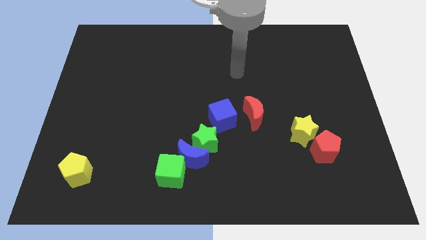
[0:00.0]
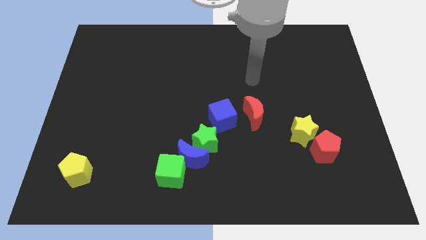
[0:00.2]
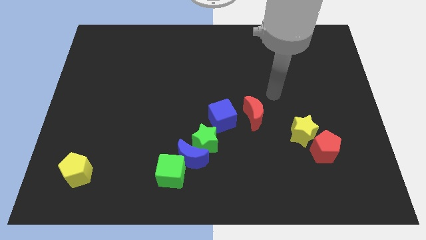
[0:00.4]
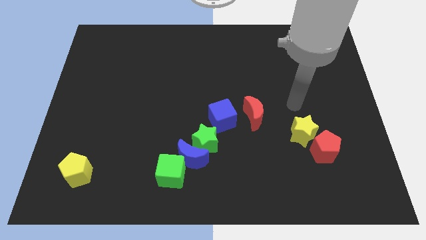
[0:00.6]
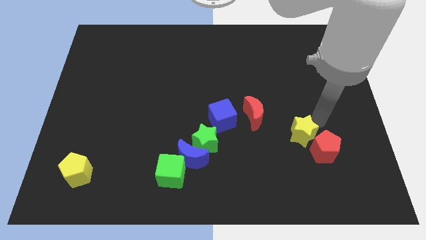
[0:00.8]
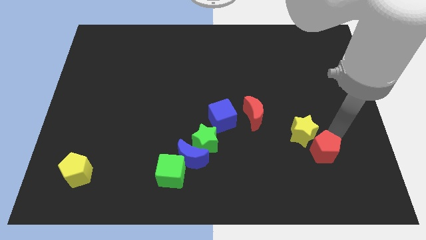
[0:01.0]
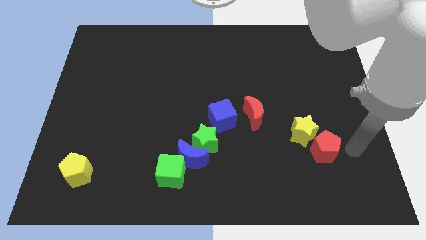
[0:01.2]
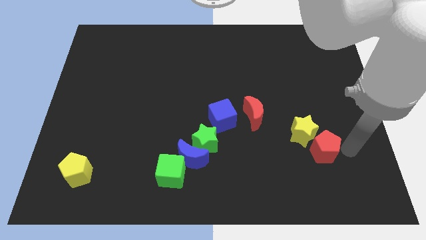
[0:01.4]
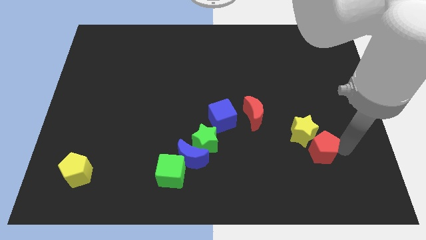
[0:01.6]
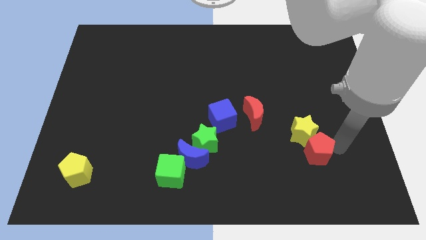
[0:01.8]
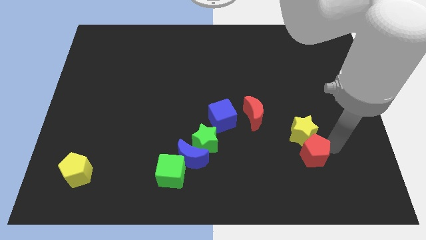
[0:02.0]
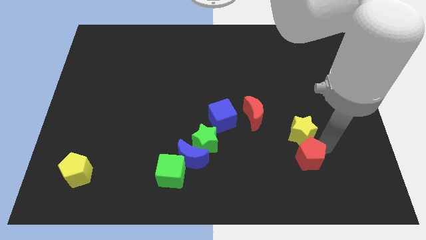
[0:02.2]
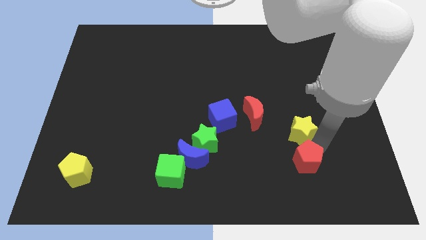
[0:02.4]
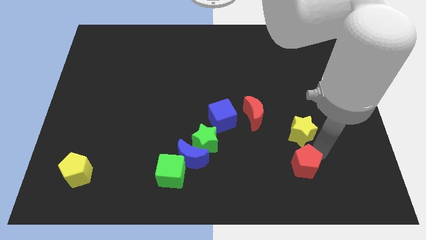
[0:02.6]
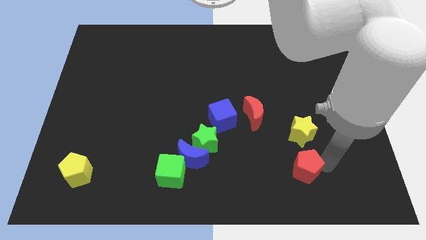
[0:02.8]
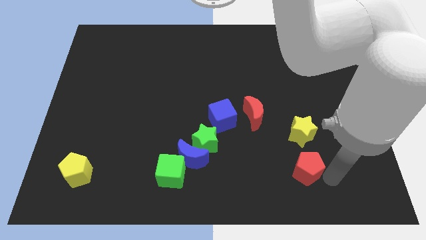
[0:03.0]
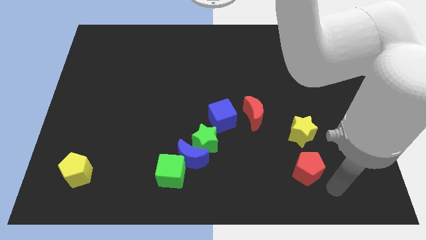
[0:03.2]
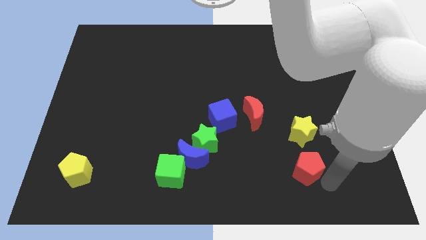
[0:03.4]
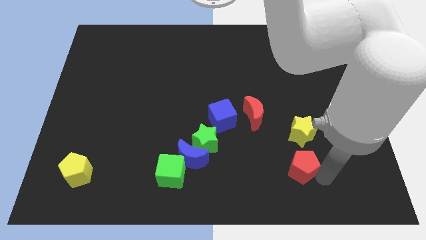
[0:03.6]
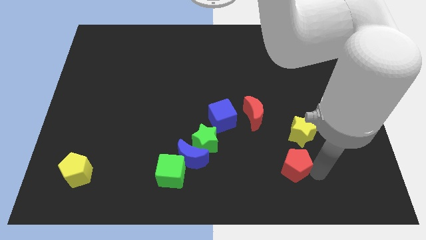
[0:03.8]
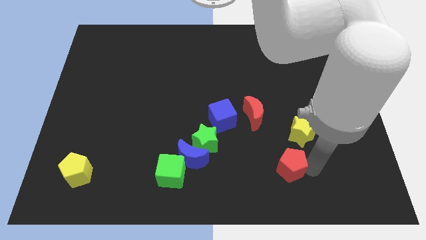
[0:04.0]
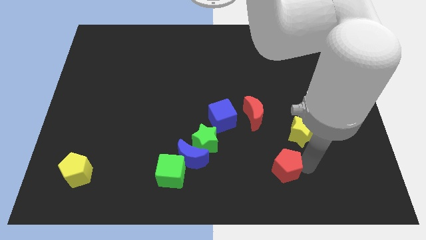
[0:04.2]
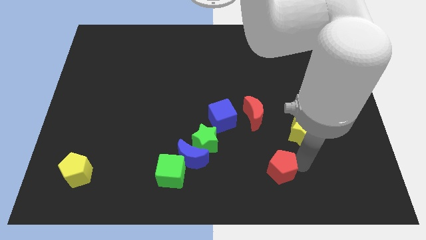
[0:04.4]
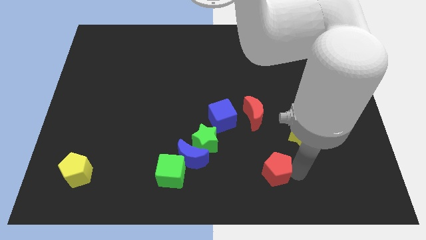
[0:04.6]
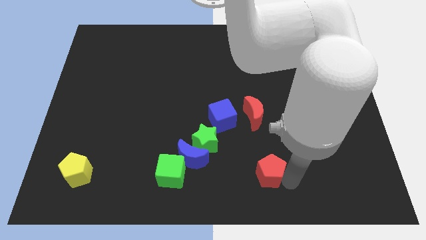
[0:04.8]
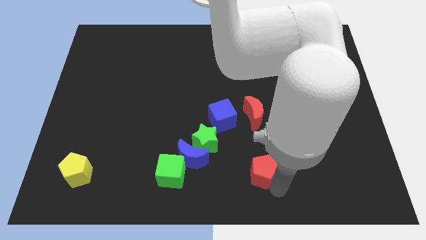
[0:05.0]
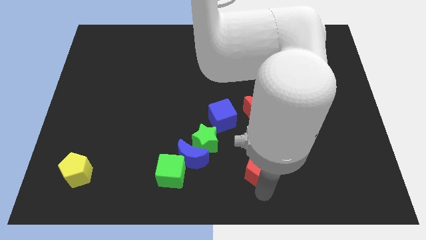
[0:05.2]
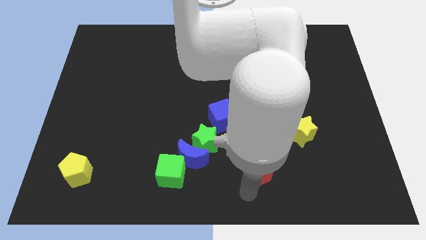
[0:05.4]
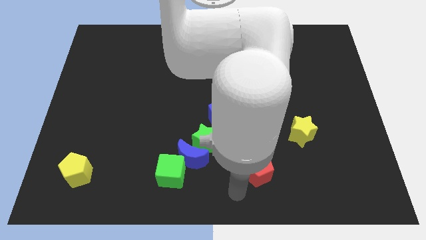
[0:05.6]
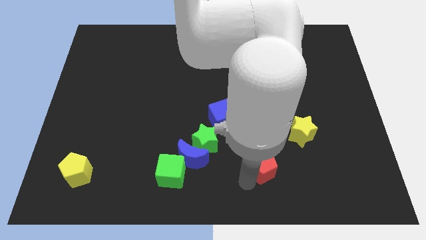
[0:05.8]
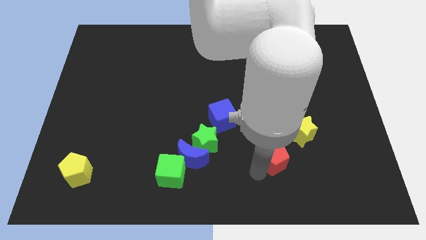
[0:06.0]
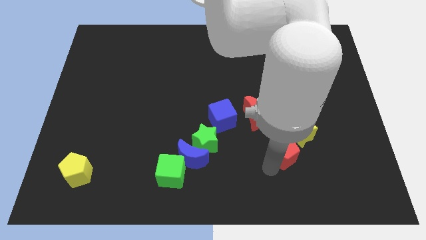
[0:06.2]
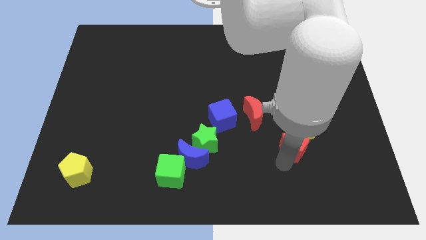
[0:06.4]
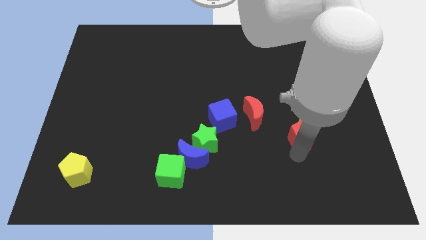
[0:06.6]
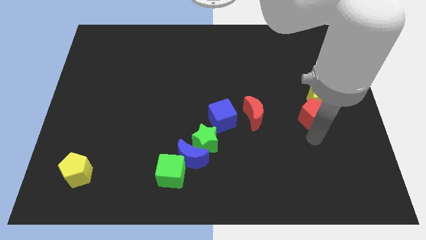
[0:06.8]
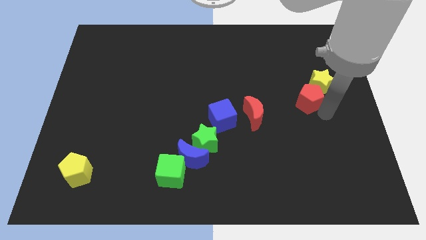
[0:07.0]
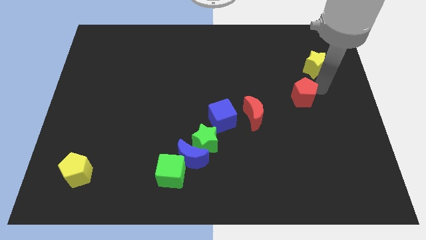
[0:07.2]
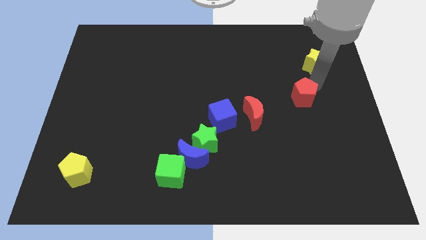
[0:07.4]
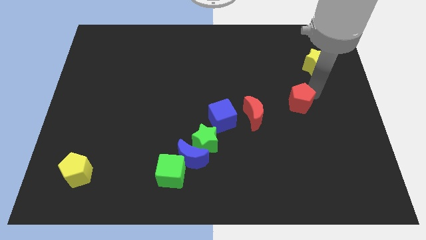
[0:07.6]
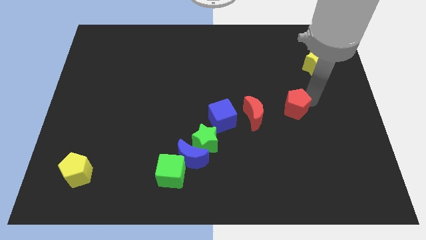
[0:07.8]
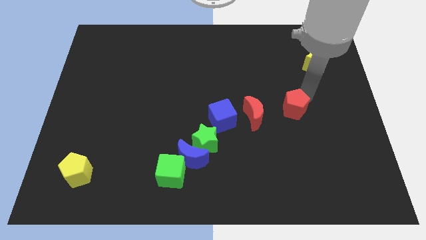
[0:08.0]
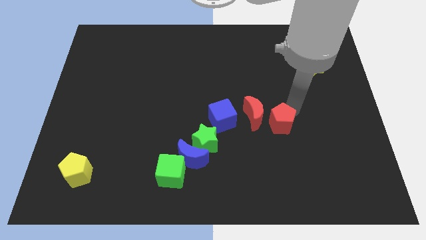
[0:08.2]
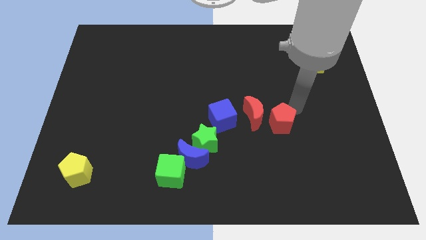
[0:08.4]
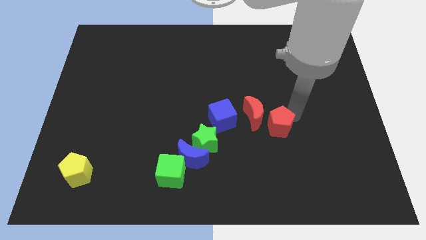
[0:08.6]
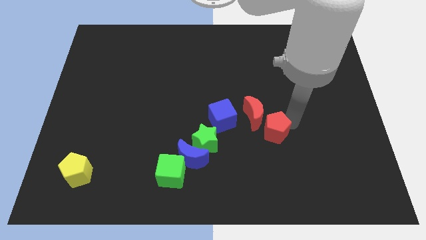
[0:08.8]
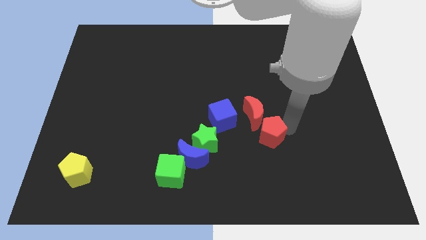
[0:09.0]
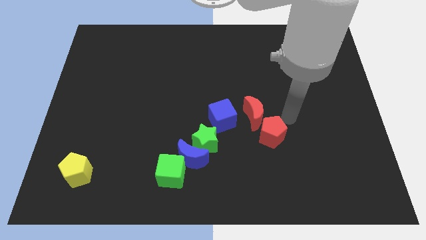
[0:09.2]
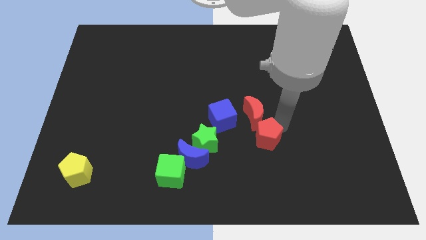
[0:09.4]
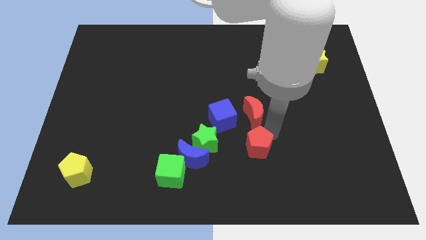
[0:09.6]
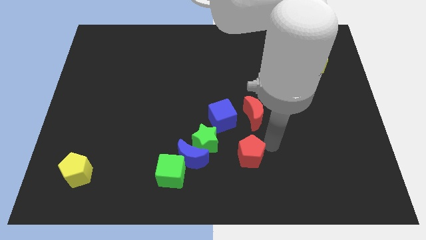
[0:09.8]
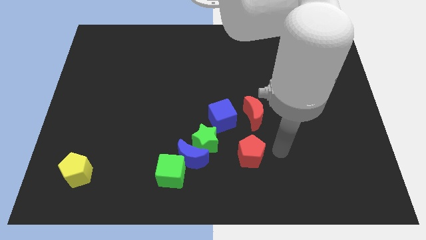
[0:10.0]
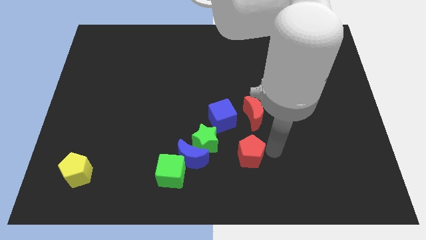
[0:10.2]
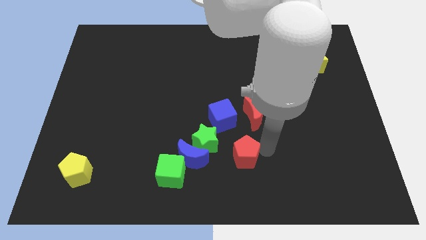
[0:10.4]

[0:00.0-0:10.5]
move the red pentagon to the bottom side of the blue cube

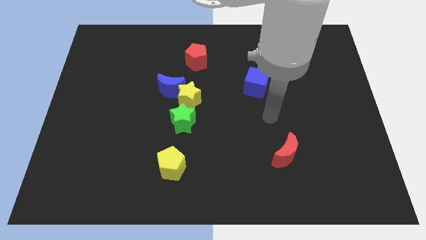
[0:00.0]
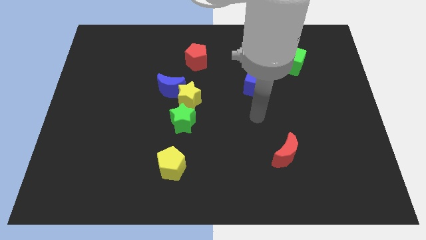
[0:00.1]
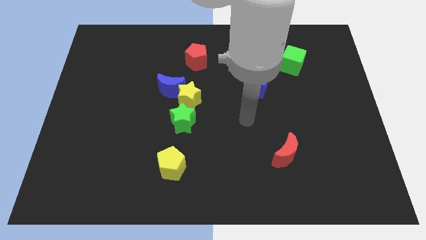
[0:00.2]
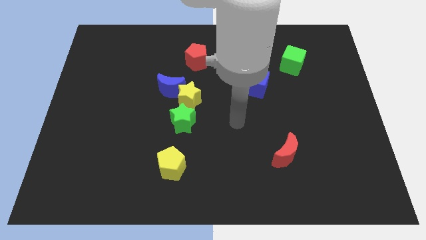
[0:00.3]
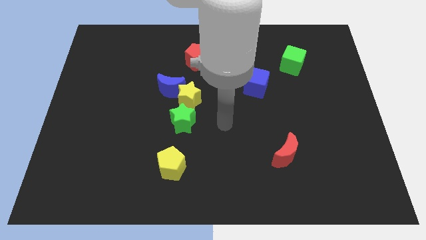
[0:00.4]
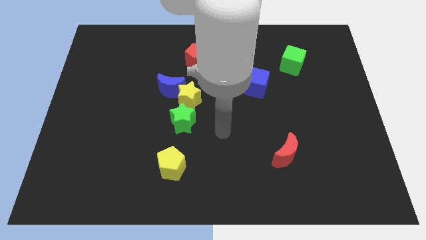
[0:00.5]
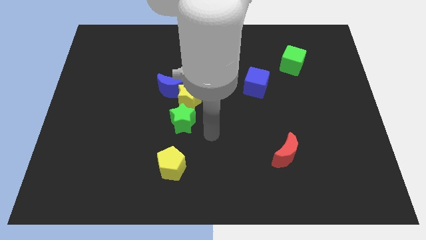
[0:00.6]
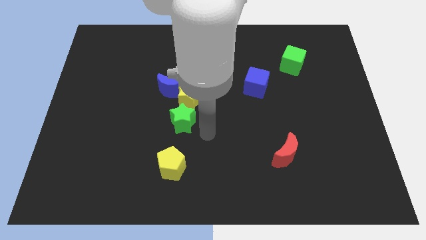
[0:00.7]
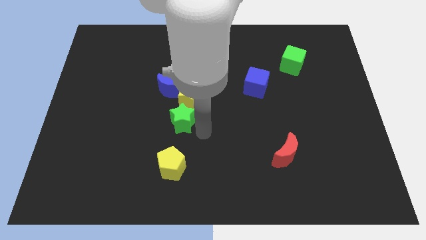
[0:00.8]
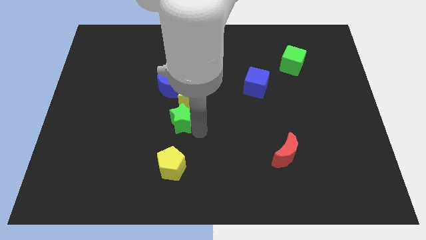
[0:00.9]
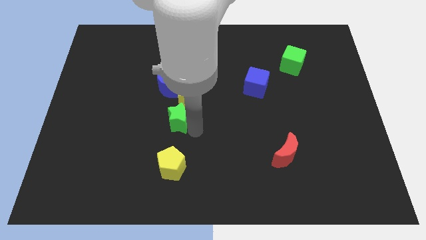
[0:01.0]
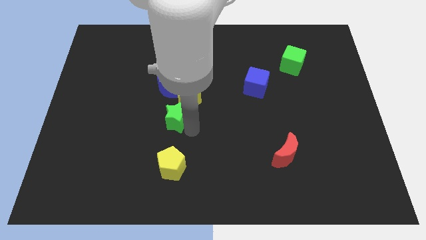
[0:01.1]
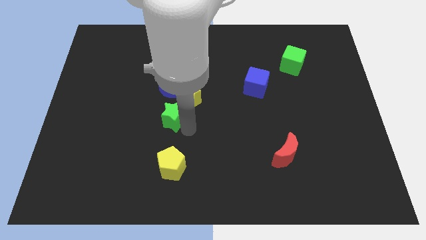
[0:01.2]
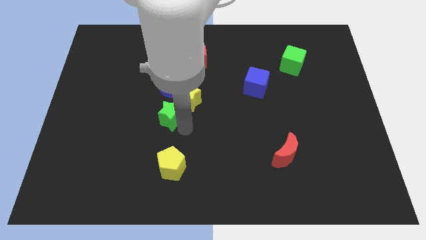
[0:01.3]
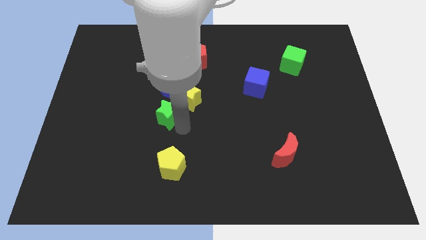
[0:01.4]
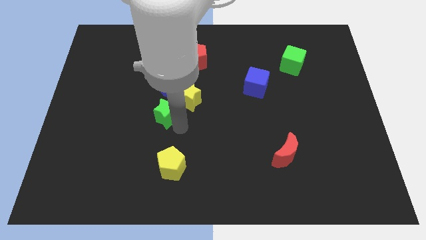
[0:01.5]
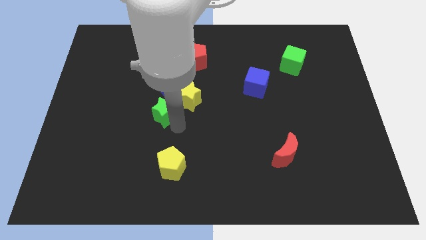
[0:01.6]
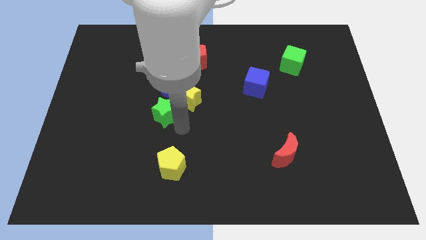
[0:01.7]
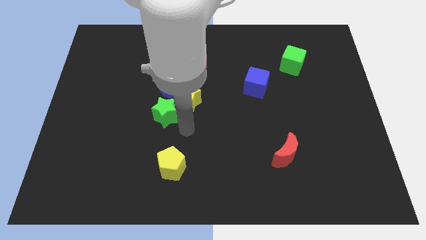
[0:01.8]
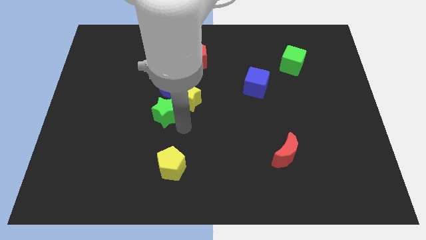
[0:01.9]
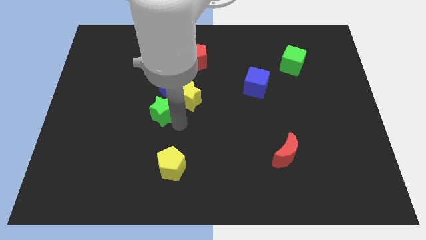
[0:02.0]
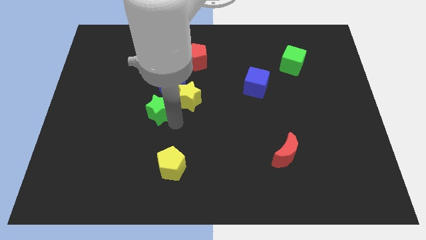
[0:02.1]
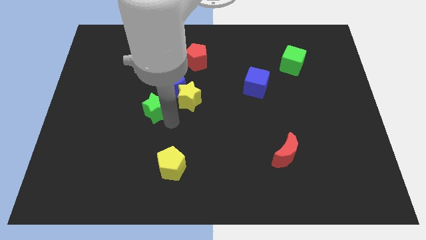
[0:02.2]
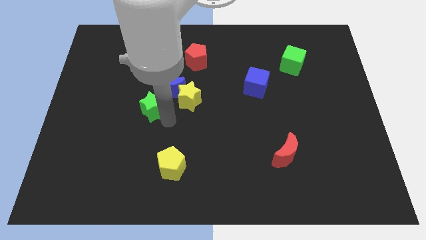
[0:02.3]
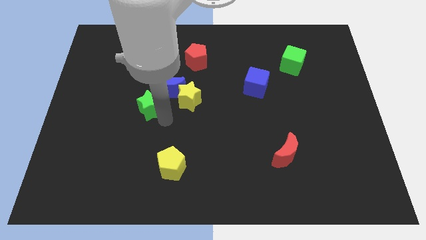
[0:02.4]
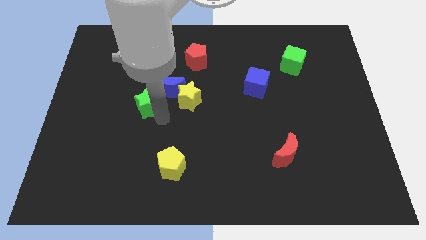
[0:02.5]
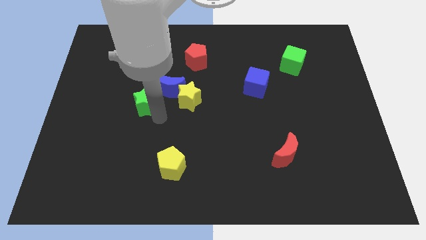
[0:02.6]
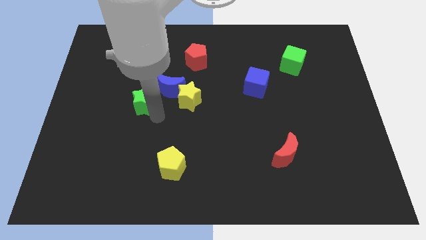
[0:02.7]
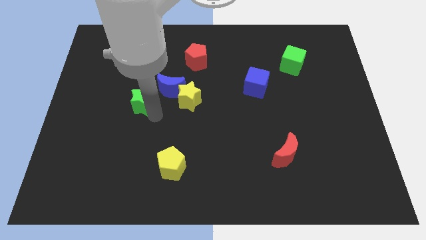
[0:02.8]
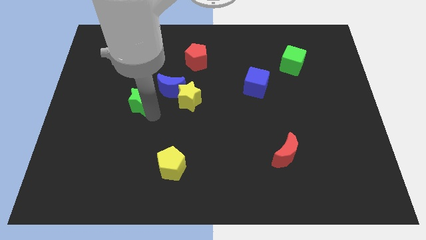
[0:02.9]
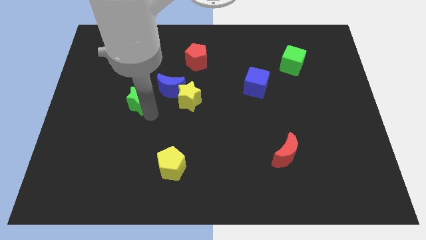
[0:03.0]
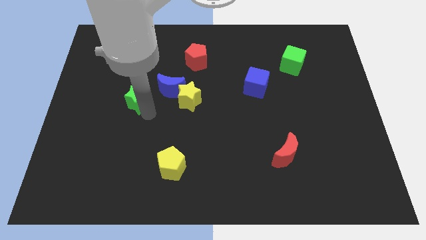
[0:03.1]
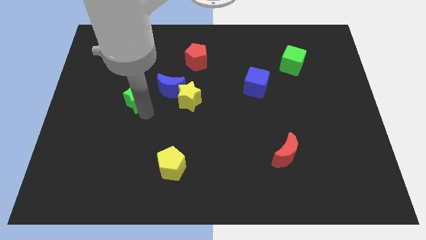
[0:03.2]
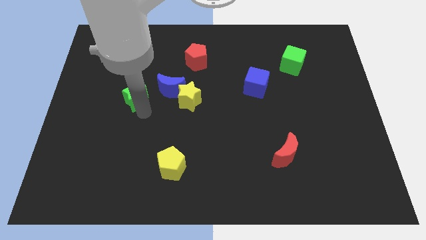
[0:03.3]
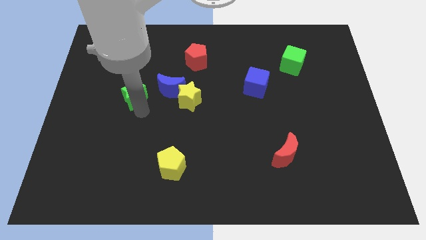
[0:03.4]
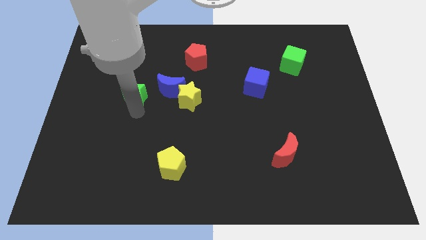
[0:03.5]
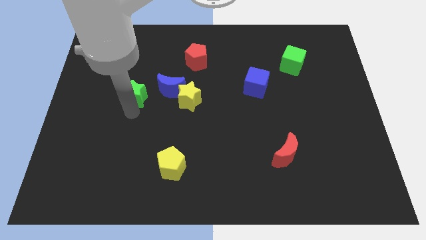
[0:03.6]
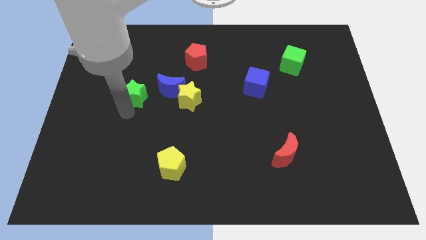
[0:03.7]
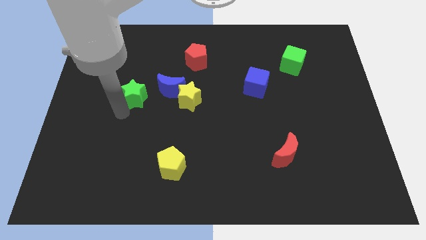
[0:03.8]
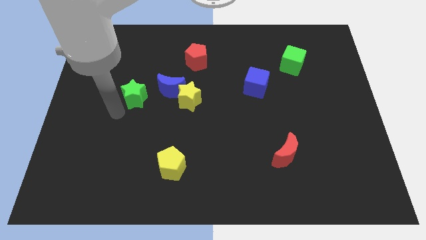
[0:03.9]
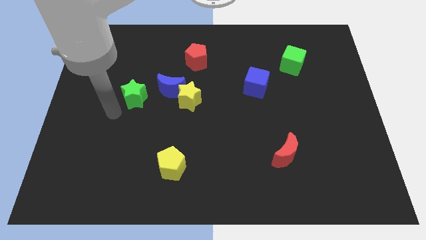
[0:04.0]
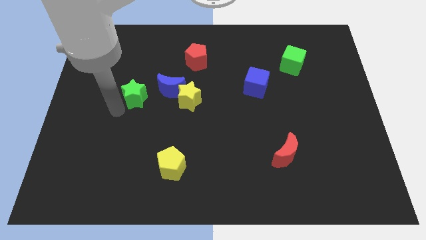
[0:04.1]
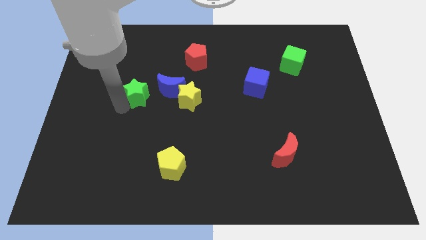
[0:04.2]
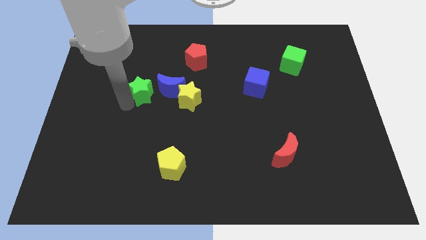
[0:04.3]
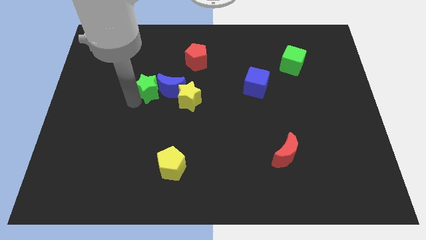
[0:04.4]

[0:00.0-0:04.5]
push the green star diagonally up and to the left of the blue moon
